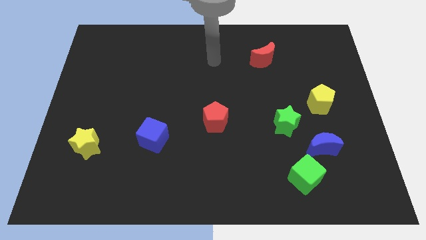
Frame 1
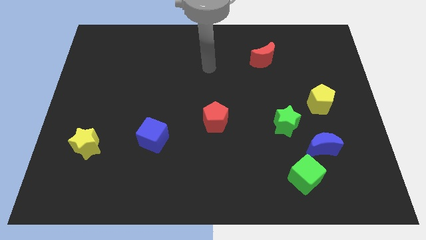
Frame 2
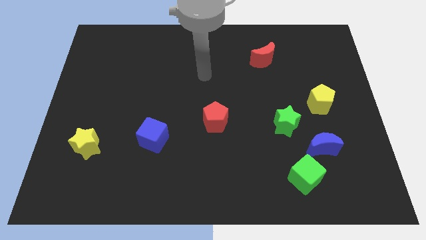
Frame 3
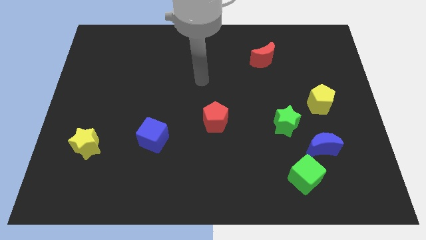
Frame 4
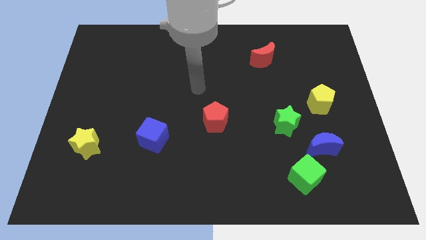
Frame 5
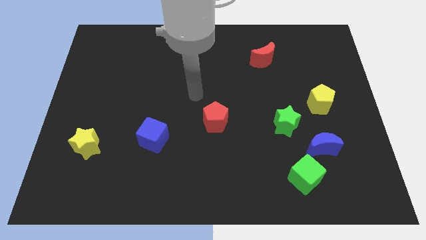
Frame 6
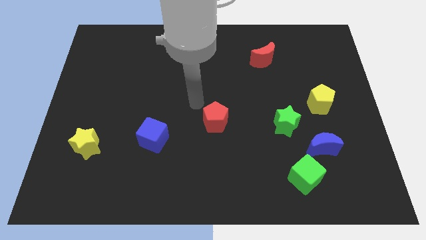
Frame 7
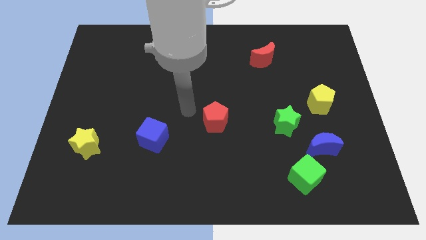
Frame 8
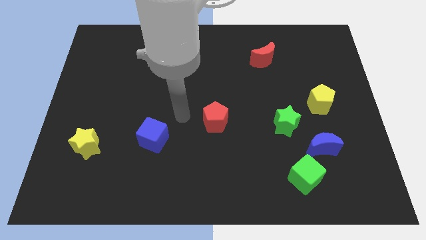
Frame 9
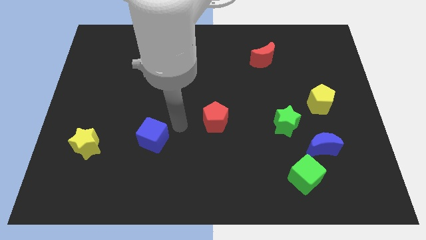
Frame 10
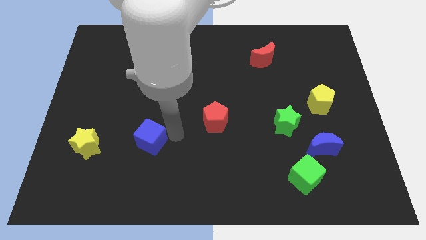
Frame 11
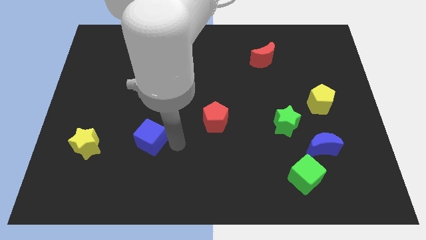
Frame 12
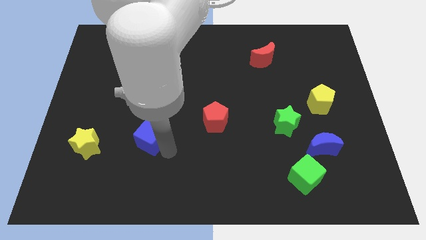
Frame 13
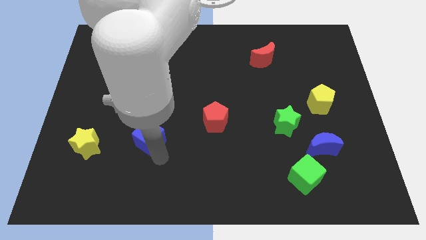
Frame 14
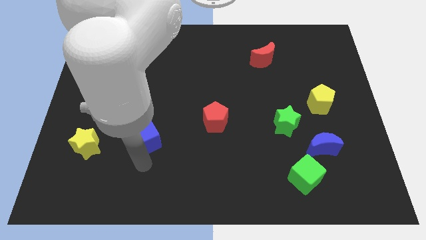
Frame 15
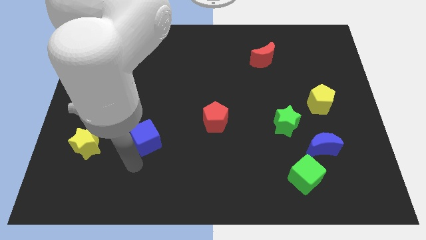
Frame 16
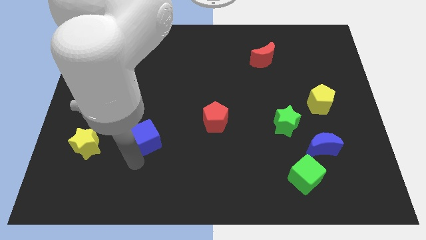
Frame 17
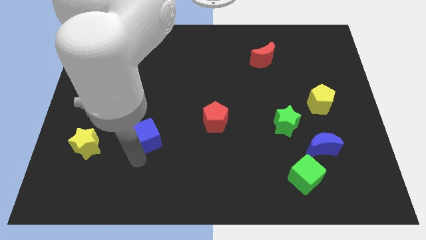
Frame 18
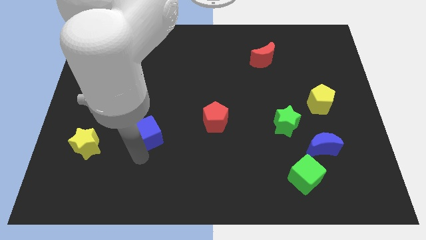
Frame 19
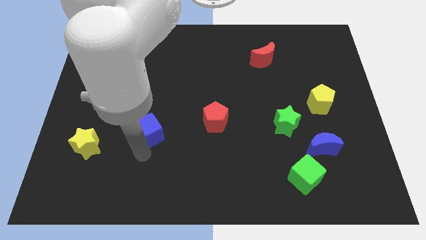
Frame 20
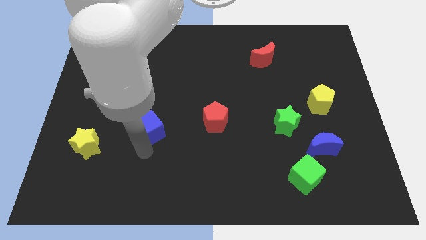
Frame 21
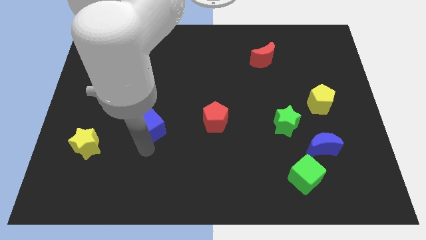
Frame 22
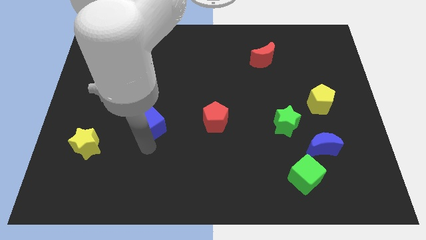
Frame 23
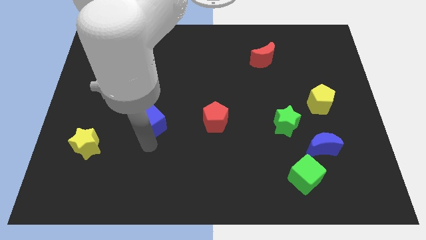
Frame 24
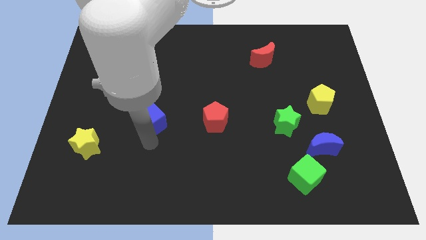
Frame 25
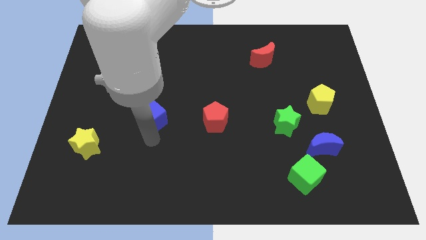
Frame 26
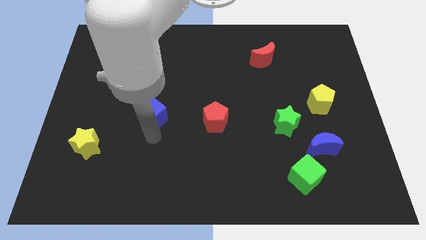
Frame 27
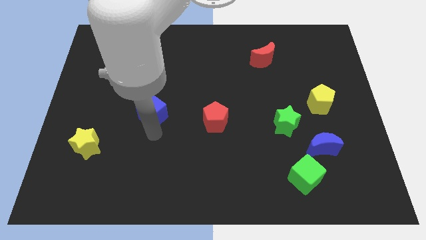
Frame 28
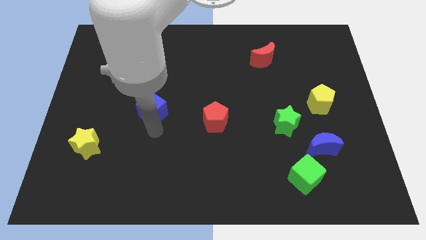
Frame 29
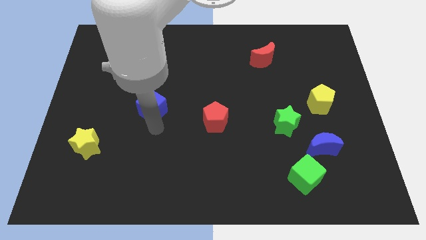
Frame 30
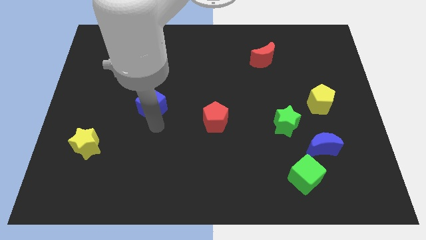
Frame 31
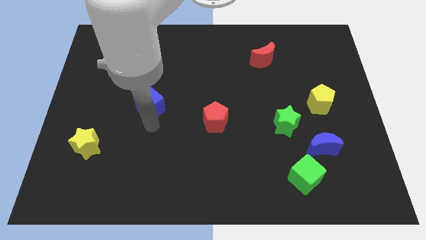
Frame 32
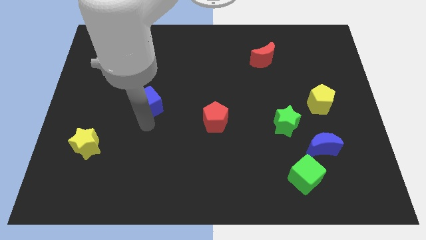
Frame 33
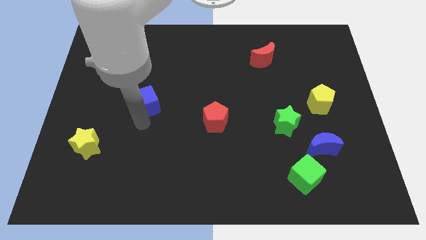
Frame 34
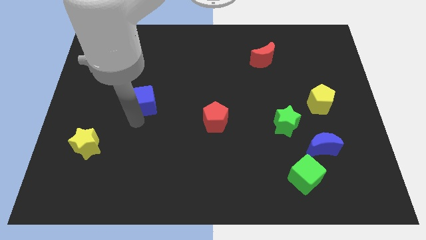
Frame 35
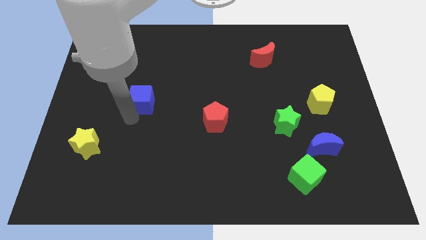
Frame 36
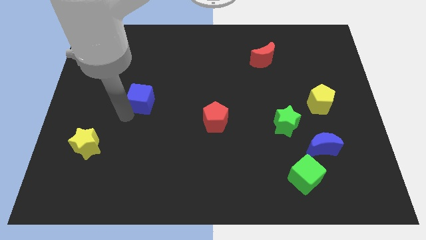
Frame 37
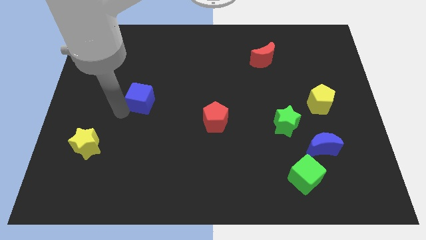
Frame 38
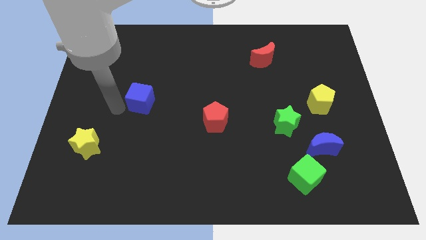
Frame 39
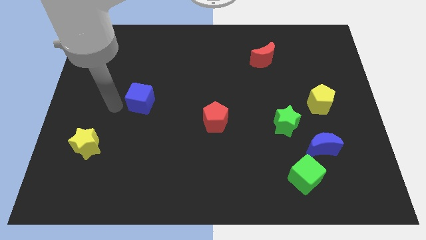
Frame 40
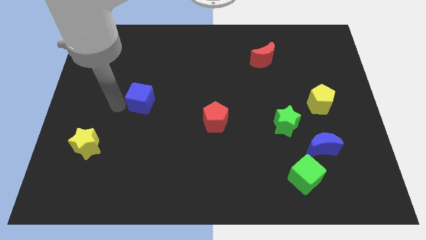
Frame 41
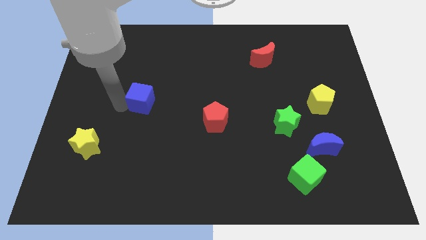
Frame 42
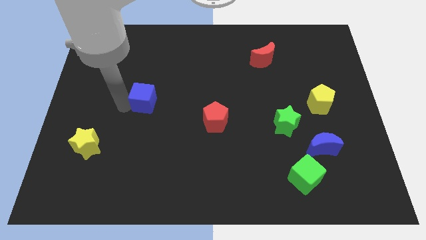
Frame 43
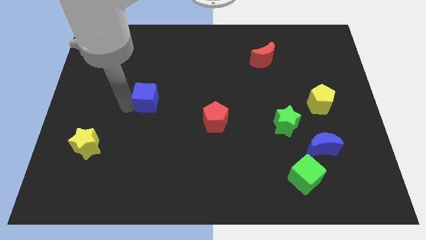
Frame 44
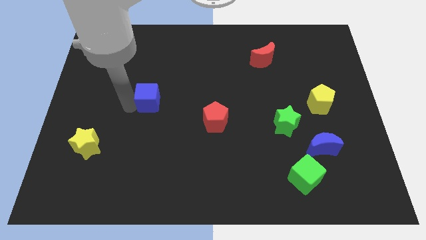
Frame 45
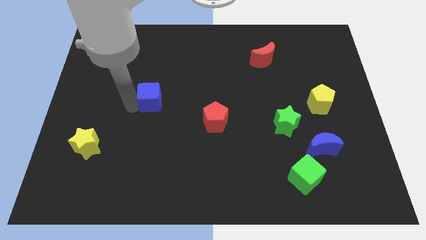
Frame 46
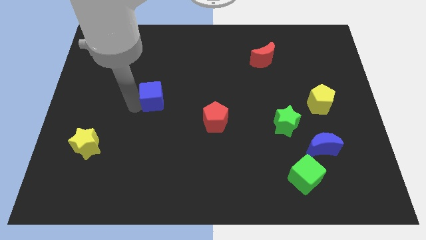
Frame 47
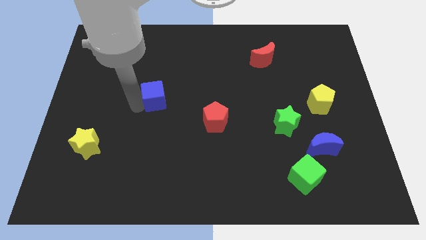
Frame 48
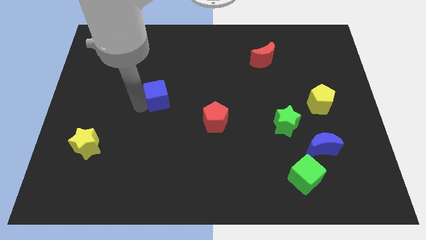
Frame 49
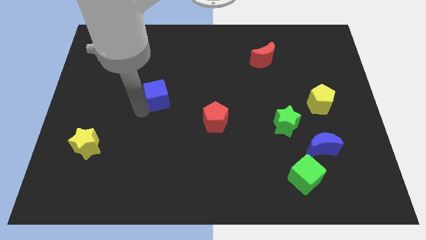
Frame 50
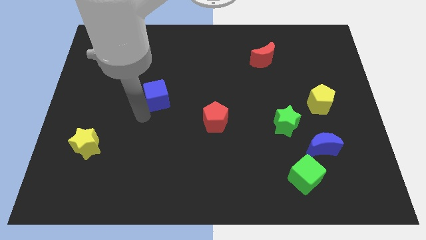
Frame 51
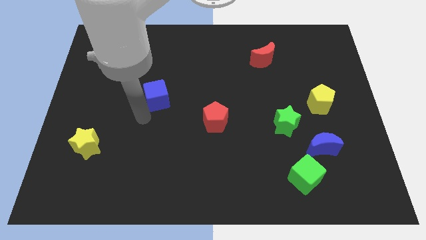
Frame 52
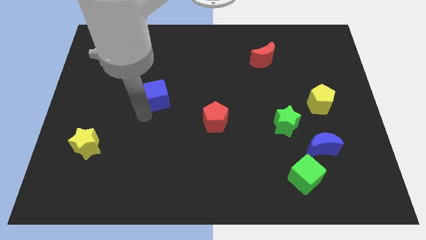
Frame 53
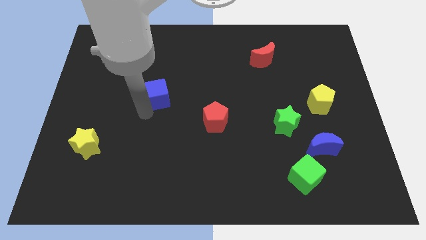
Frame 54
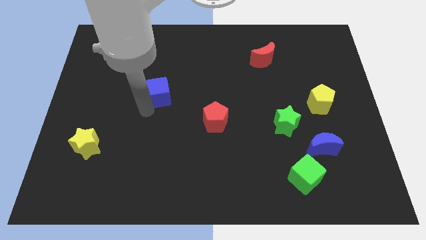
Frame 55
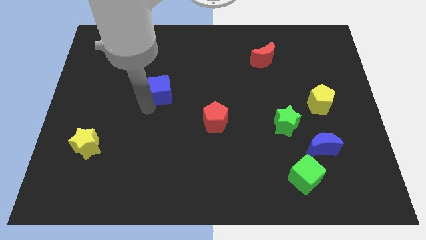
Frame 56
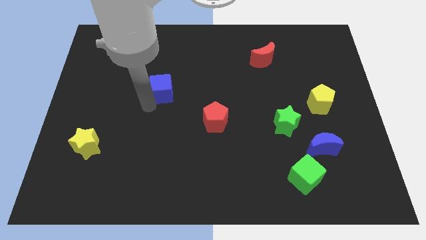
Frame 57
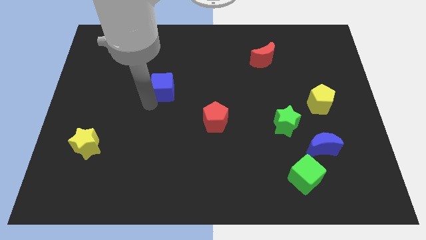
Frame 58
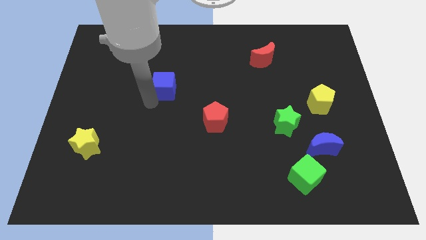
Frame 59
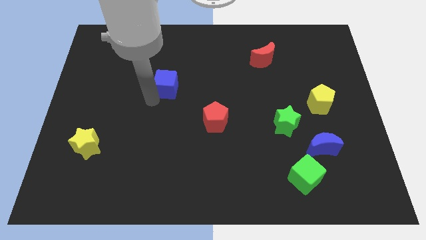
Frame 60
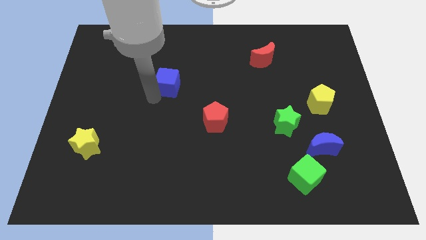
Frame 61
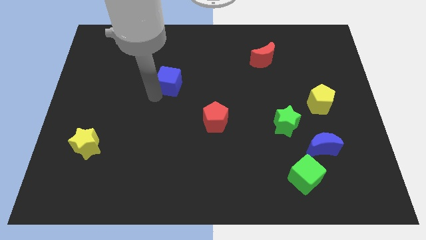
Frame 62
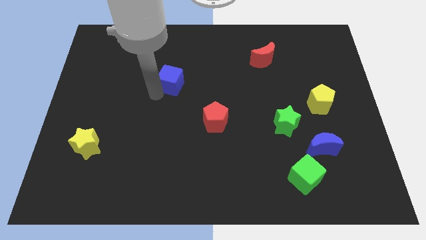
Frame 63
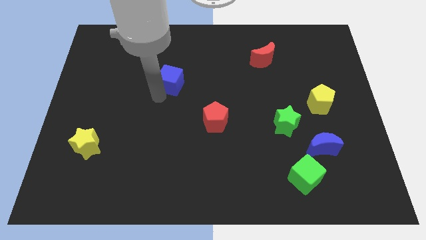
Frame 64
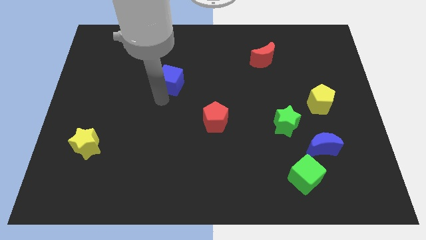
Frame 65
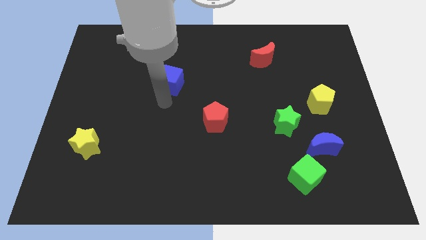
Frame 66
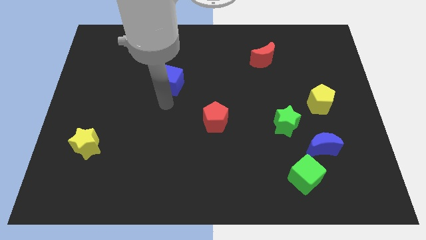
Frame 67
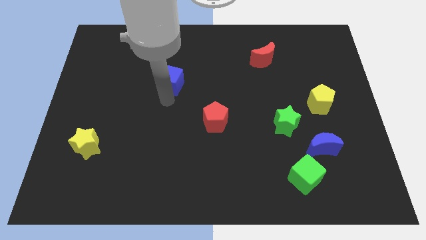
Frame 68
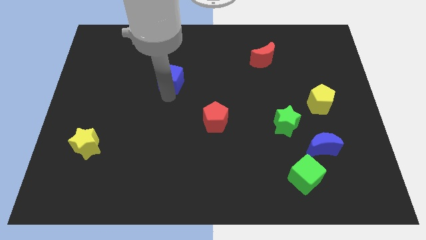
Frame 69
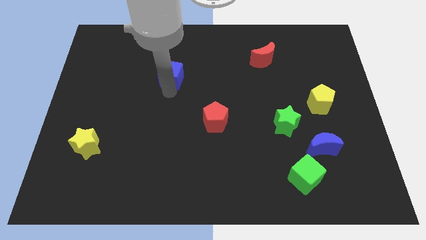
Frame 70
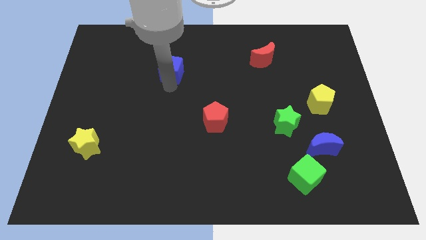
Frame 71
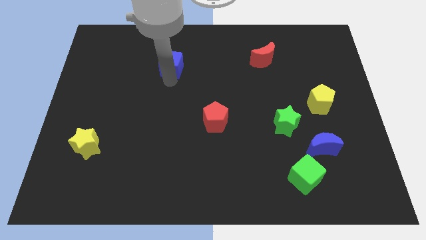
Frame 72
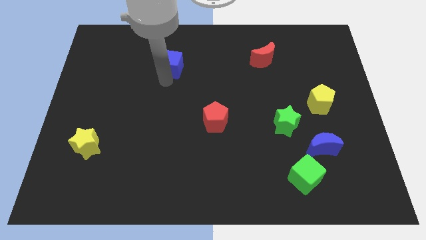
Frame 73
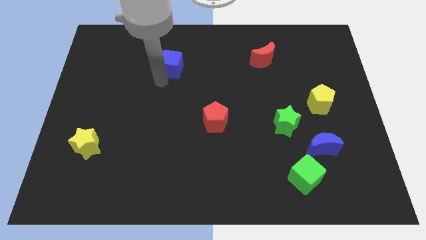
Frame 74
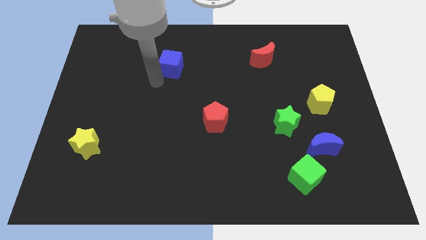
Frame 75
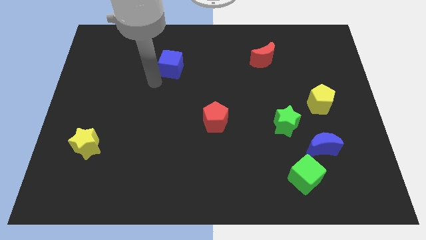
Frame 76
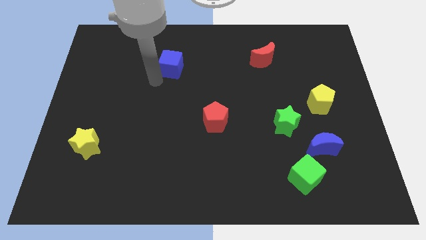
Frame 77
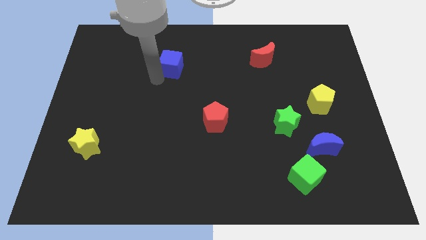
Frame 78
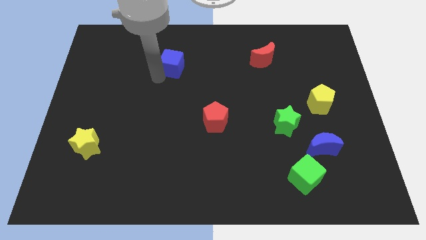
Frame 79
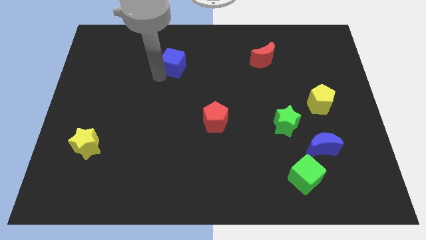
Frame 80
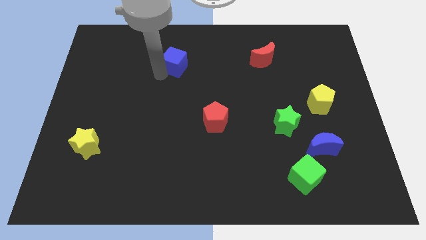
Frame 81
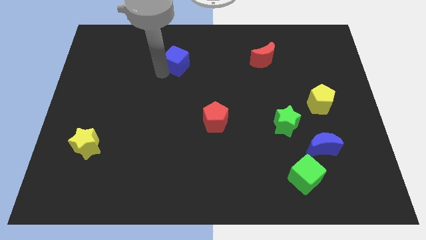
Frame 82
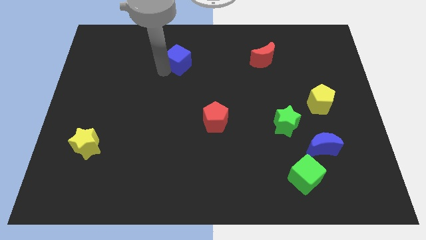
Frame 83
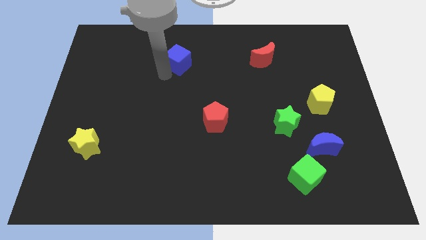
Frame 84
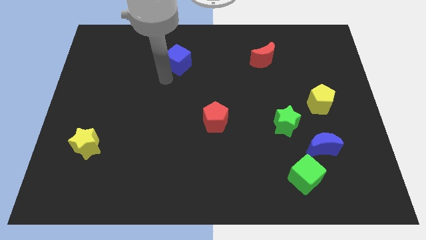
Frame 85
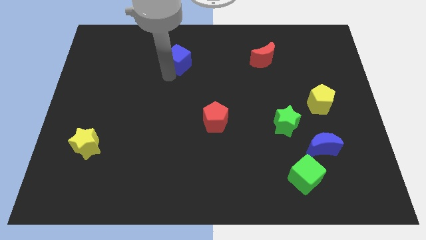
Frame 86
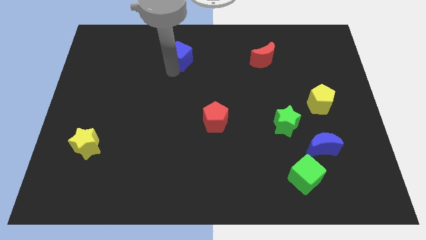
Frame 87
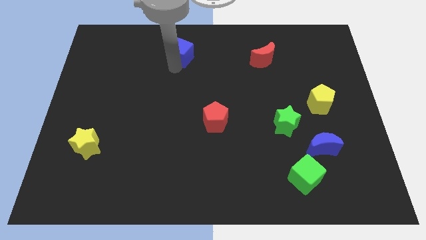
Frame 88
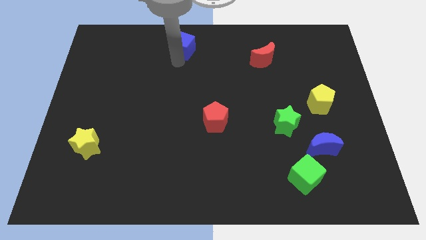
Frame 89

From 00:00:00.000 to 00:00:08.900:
push the blue cube to the top side
